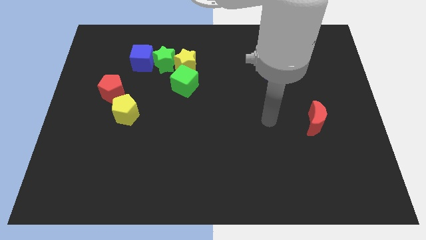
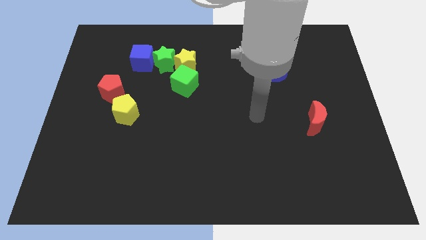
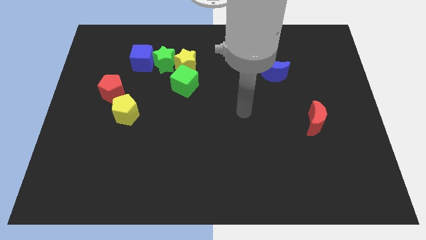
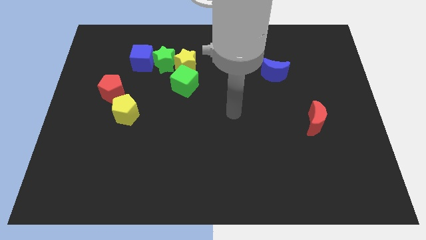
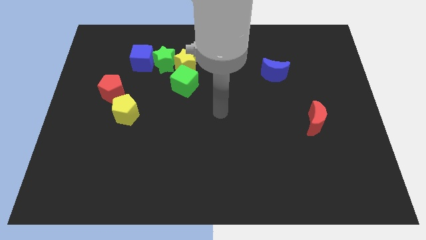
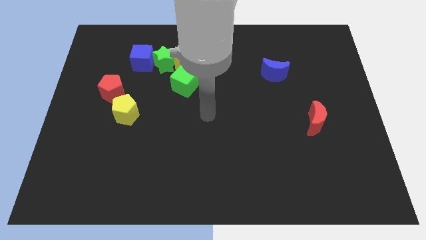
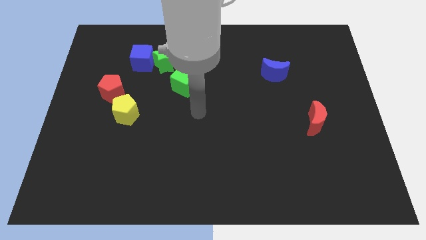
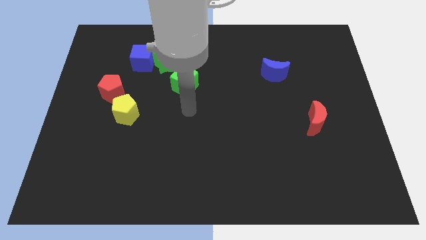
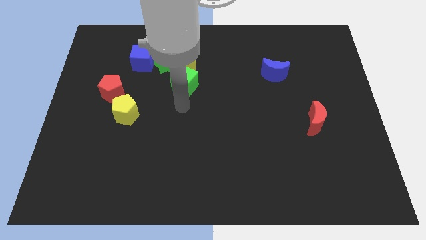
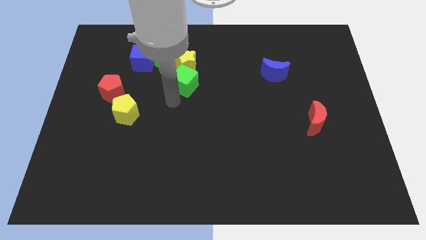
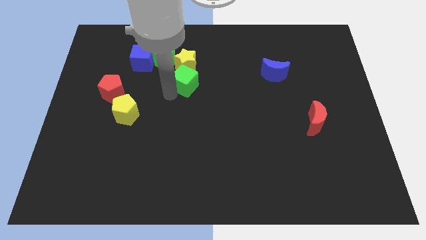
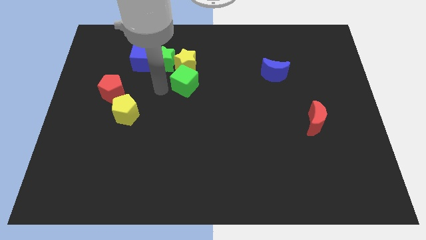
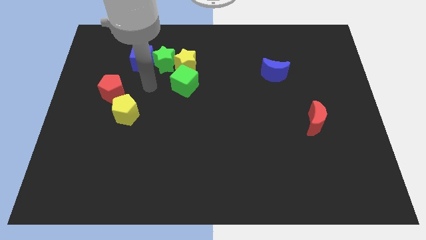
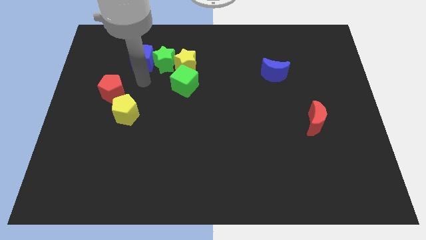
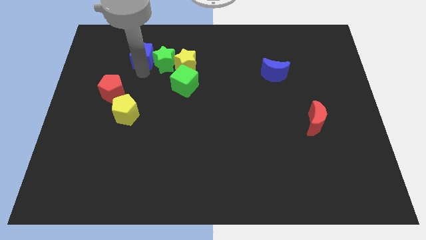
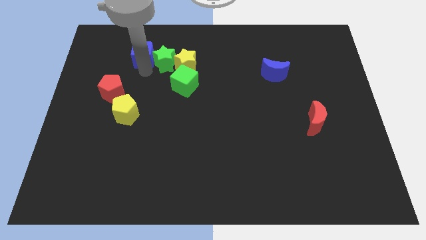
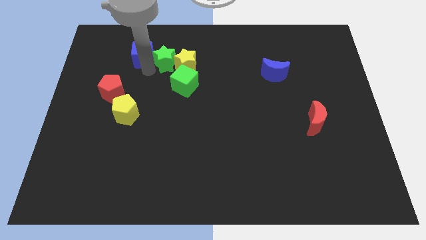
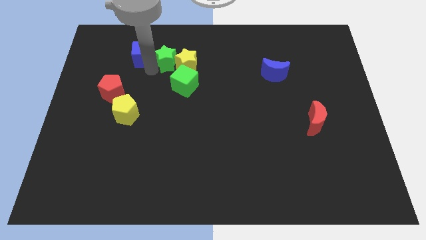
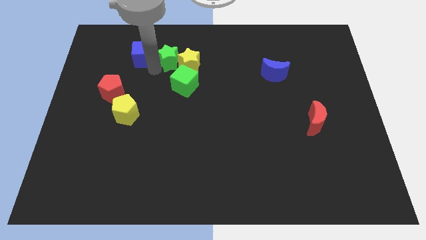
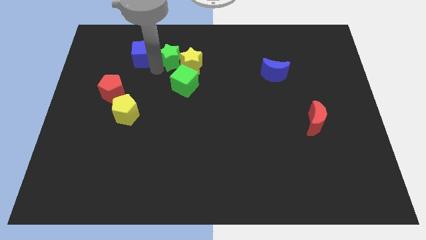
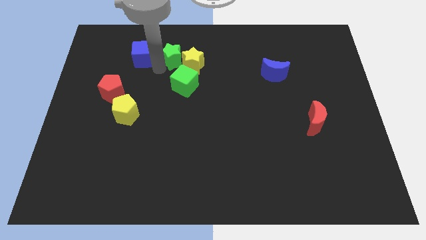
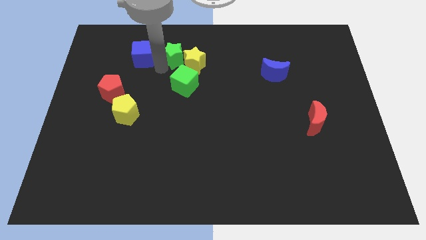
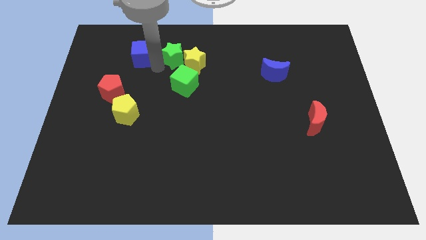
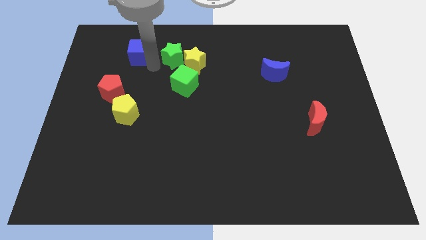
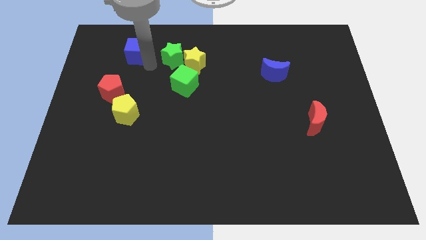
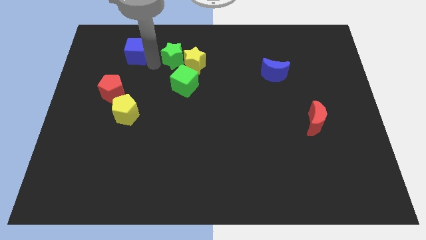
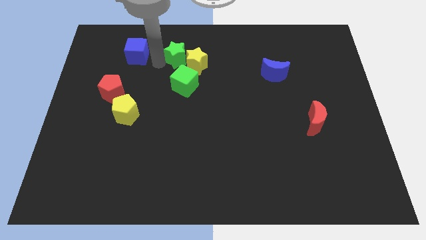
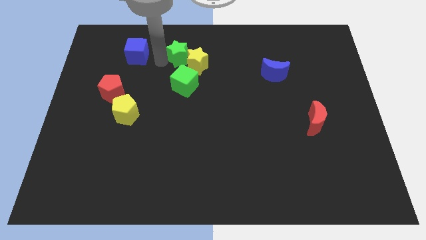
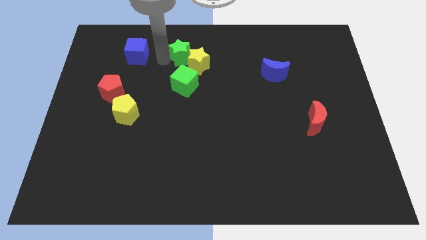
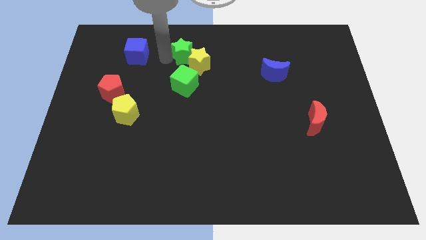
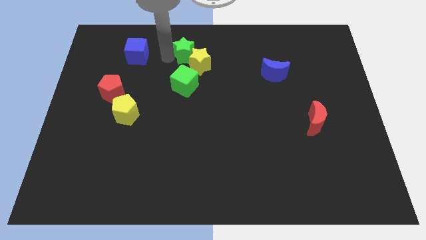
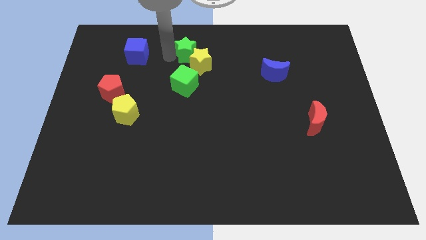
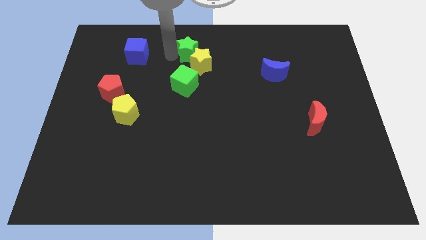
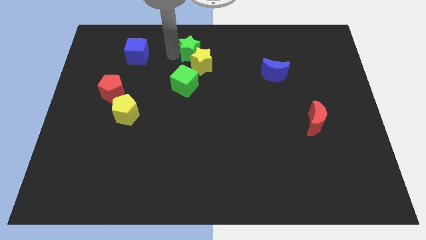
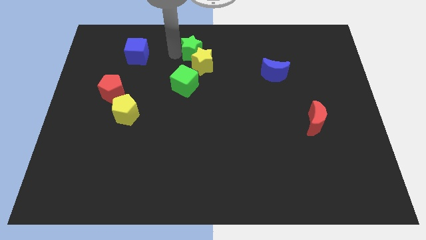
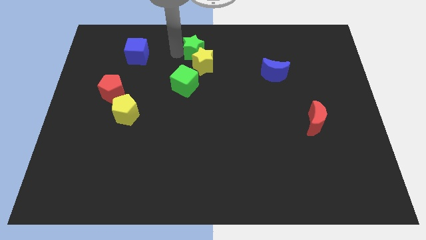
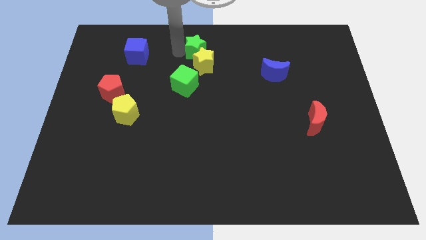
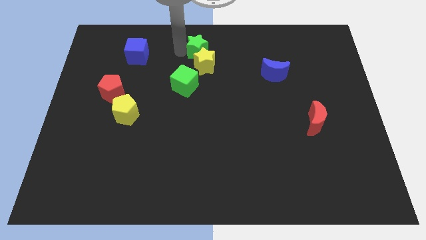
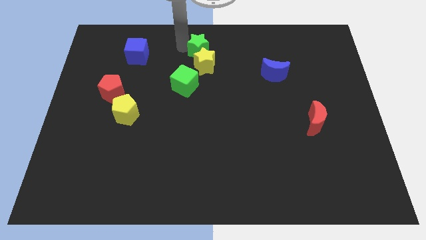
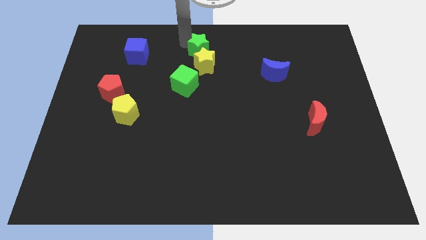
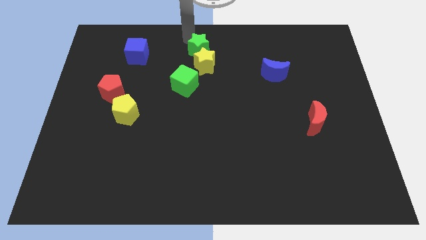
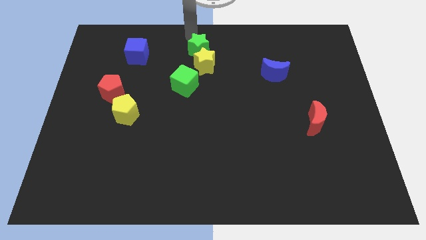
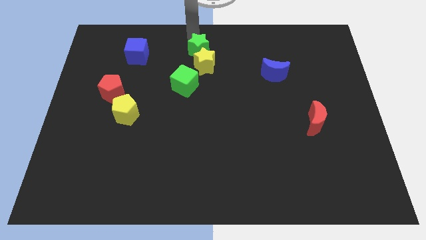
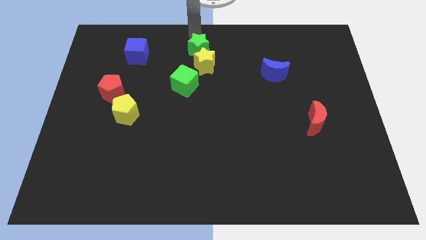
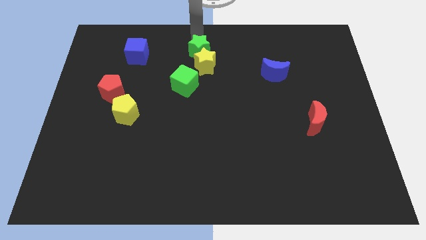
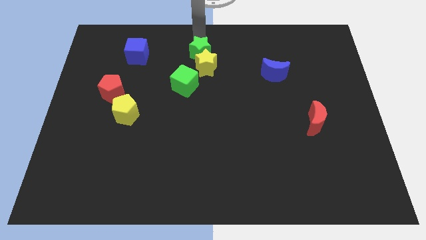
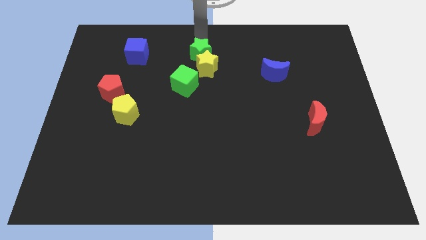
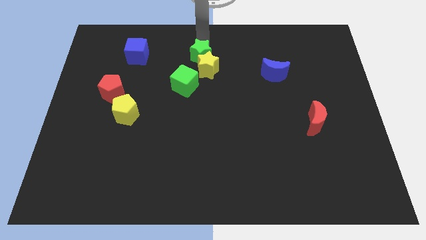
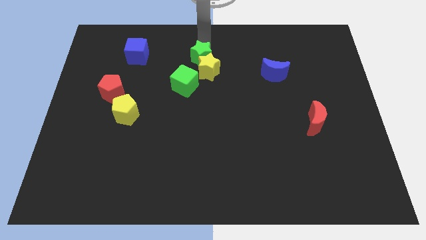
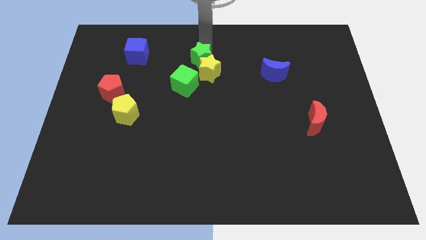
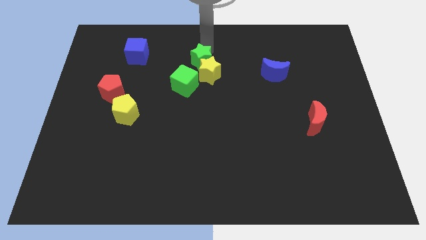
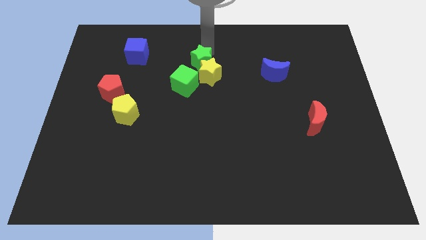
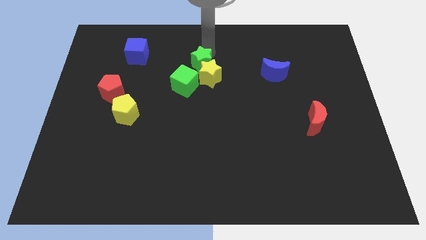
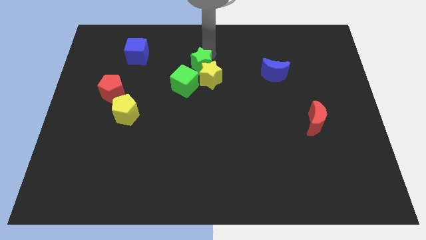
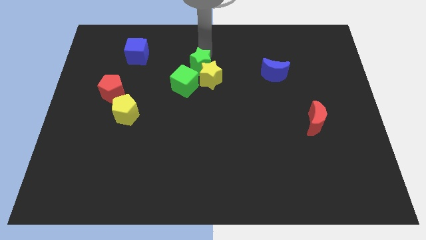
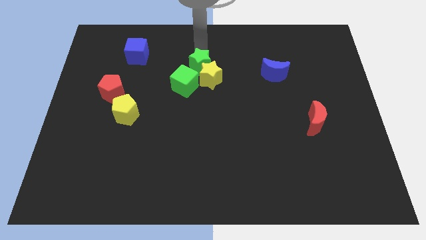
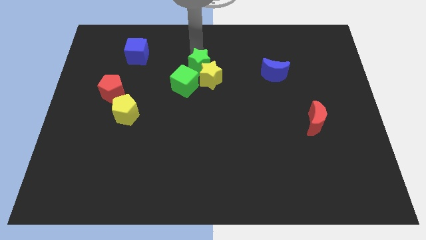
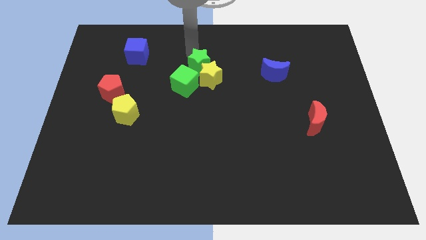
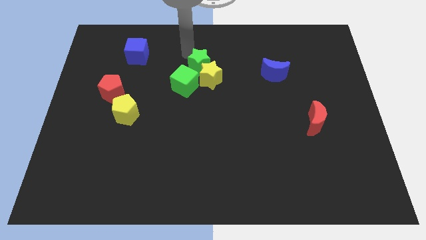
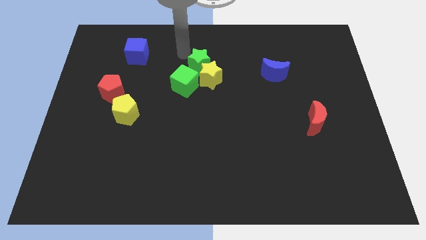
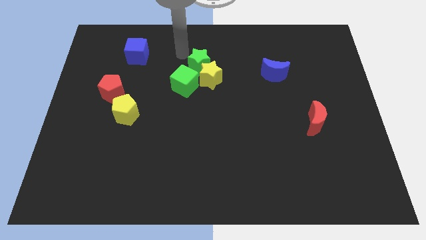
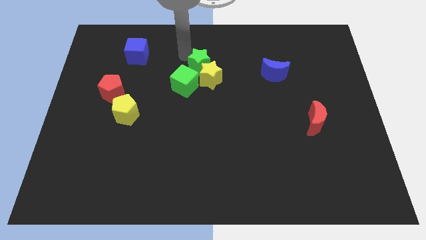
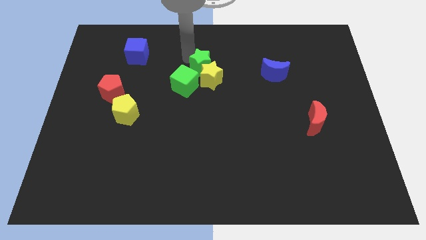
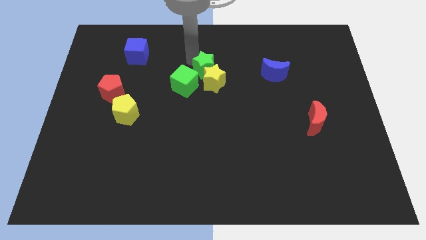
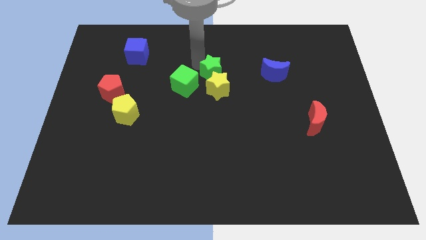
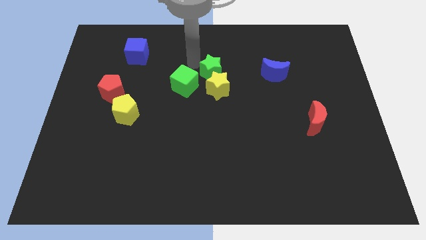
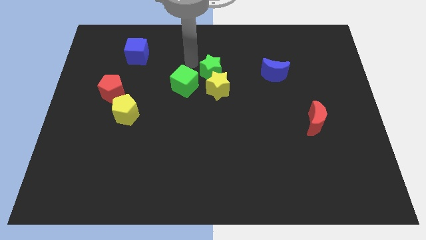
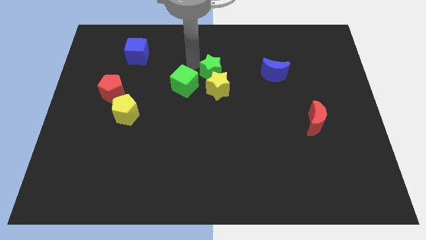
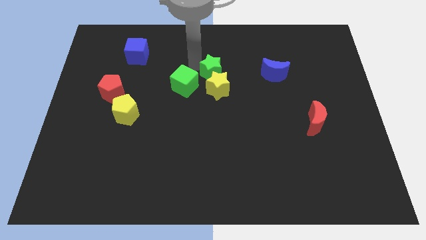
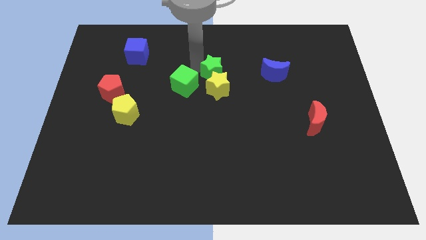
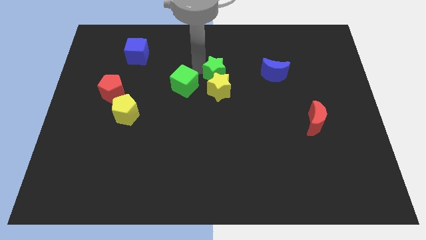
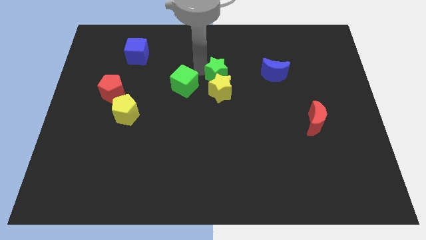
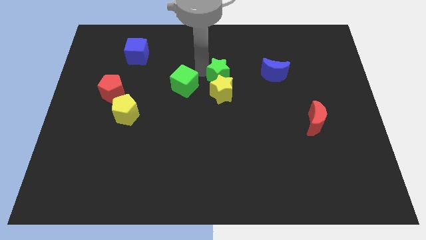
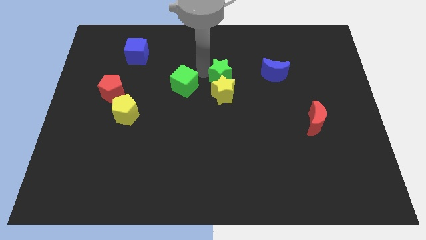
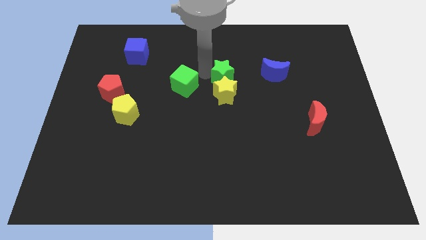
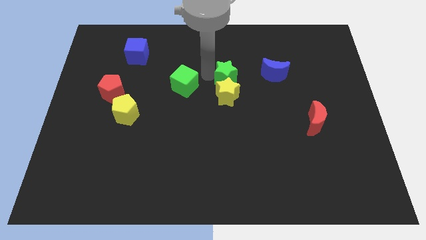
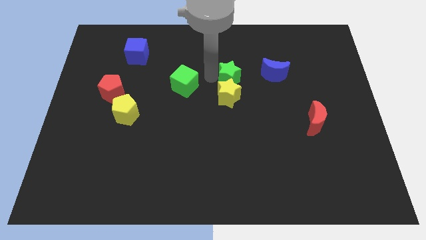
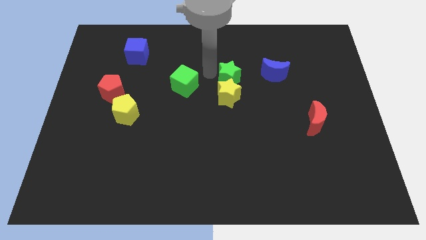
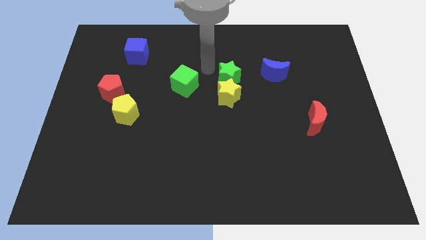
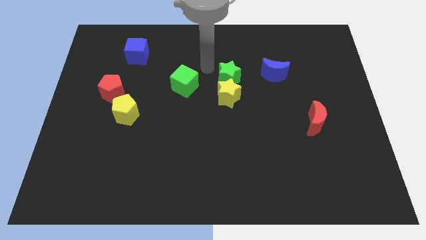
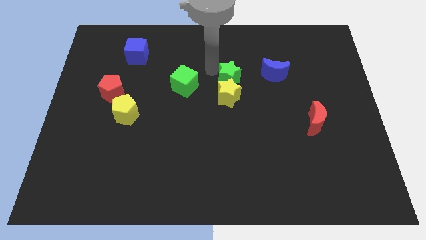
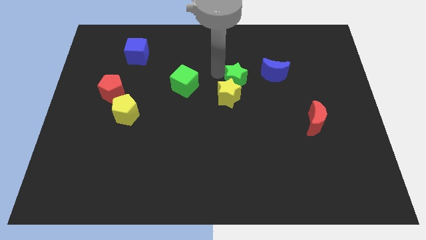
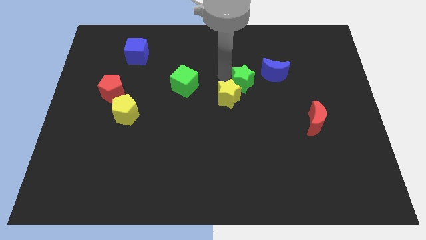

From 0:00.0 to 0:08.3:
push the green star to the bottom left side of the blue moon
